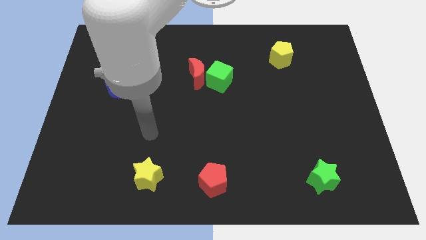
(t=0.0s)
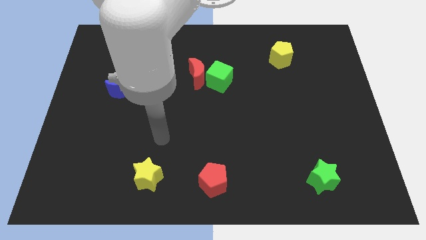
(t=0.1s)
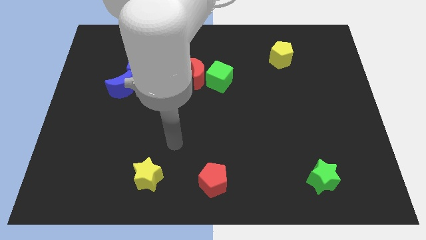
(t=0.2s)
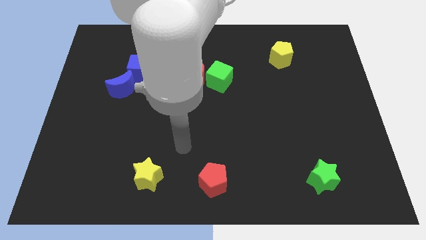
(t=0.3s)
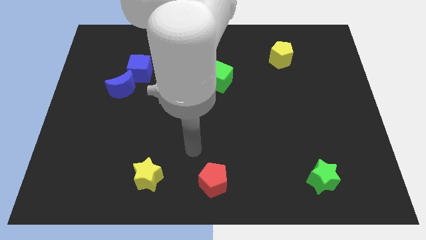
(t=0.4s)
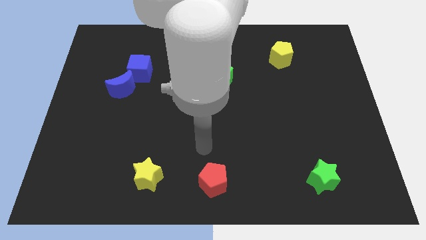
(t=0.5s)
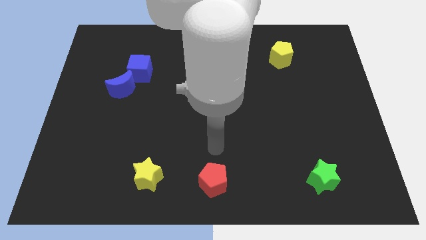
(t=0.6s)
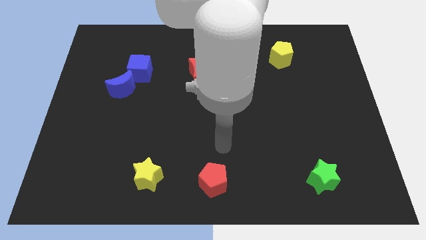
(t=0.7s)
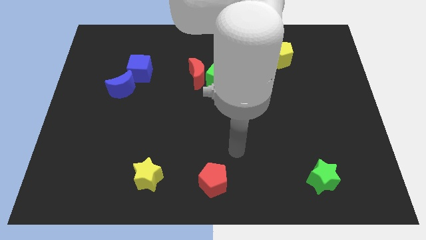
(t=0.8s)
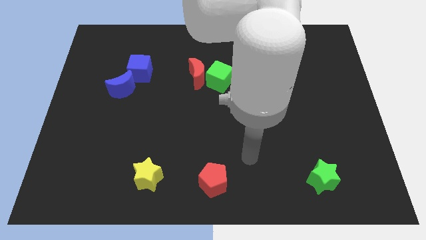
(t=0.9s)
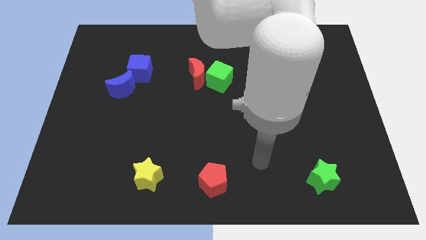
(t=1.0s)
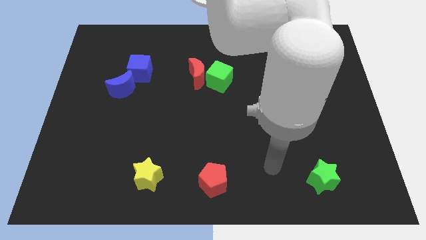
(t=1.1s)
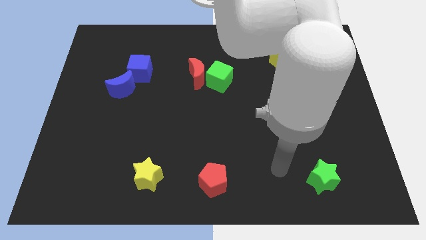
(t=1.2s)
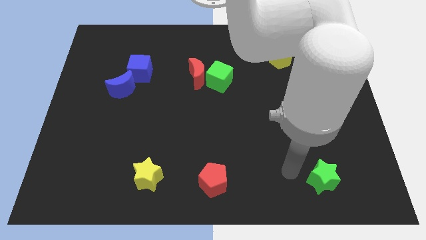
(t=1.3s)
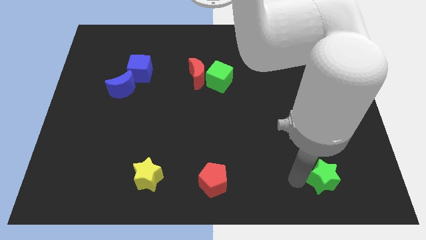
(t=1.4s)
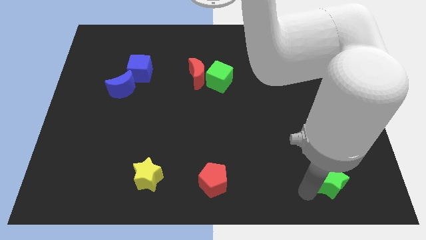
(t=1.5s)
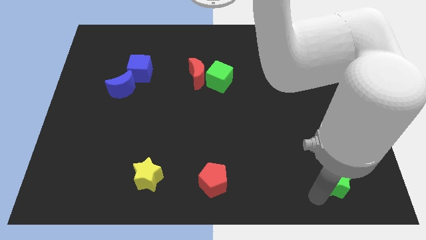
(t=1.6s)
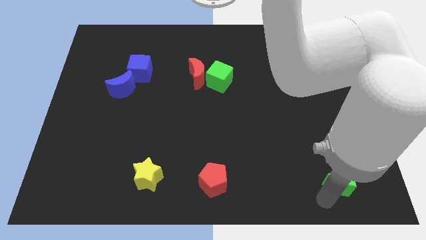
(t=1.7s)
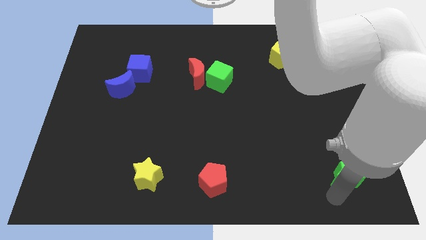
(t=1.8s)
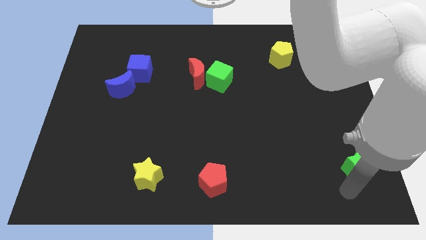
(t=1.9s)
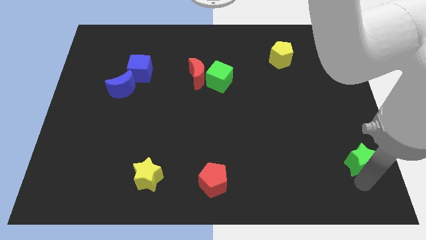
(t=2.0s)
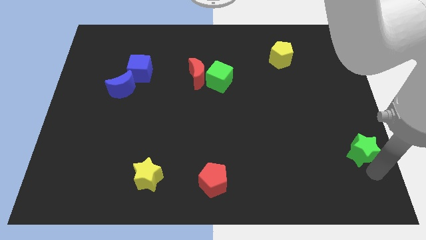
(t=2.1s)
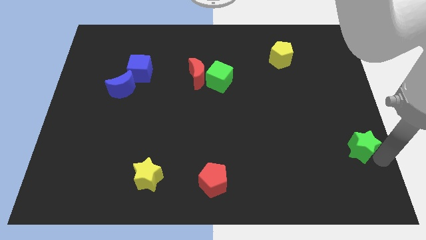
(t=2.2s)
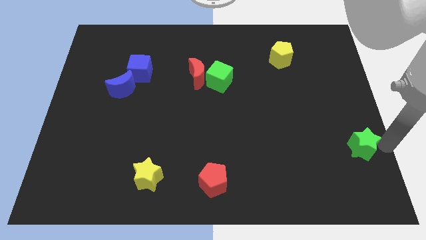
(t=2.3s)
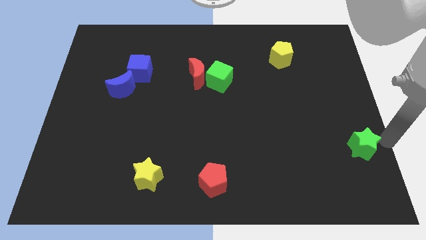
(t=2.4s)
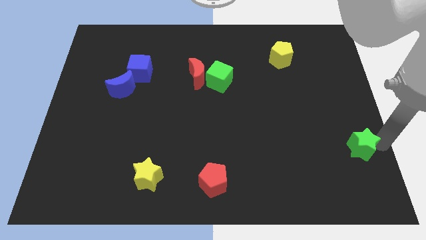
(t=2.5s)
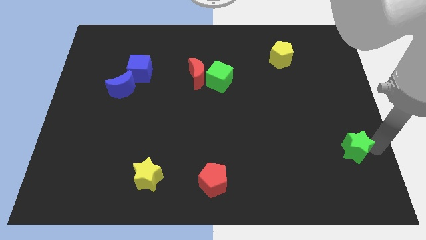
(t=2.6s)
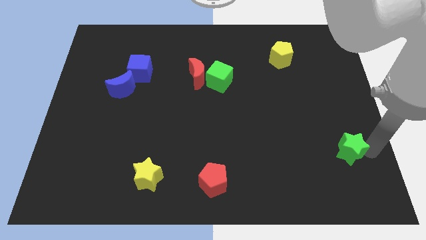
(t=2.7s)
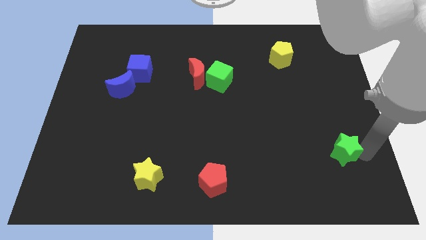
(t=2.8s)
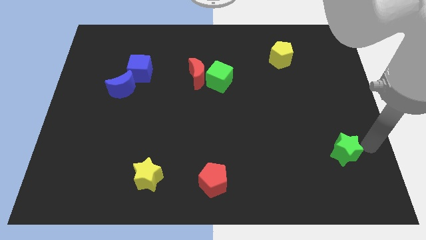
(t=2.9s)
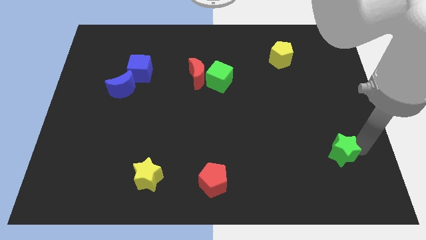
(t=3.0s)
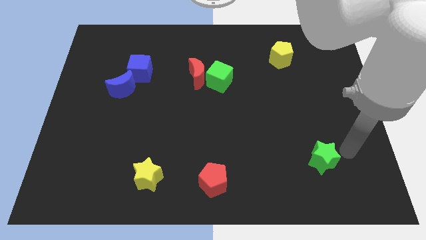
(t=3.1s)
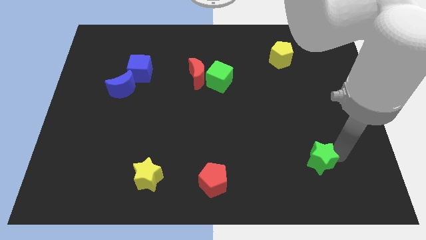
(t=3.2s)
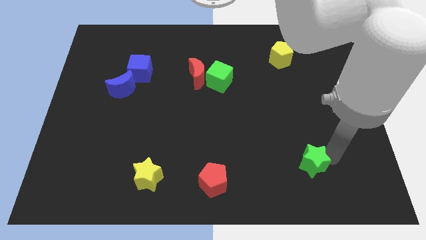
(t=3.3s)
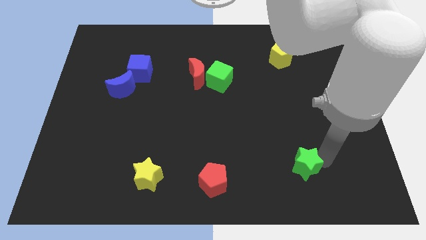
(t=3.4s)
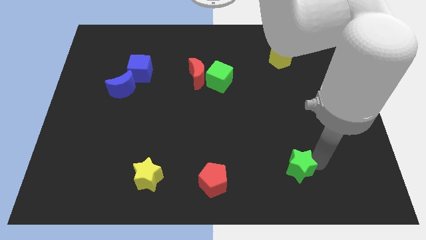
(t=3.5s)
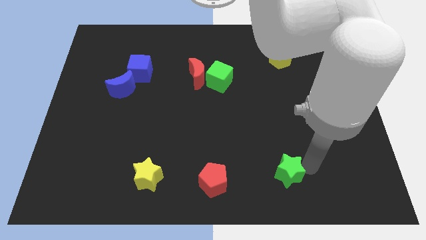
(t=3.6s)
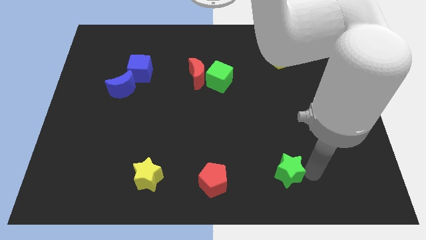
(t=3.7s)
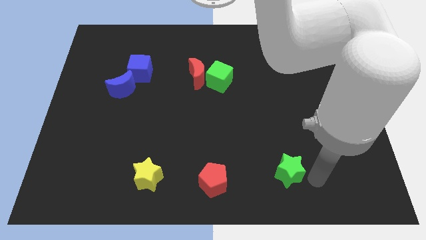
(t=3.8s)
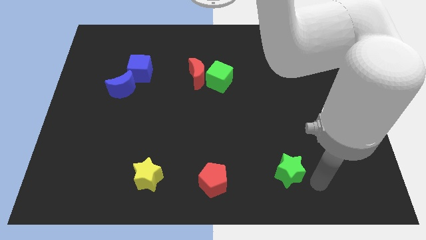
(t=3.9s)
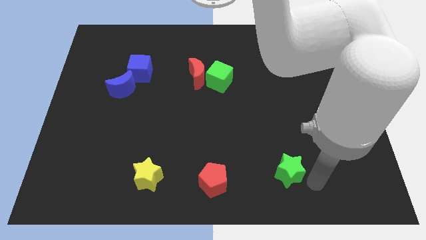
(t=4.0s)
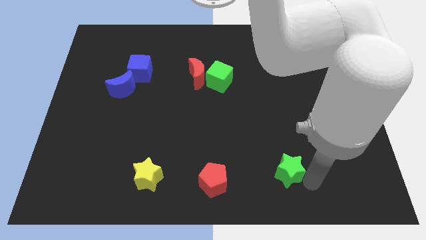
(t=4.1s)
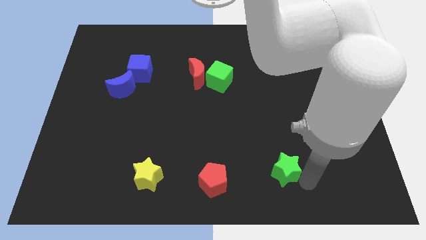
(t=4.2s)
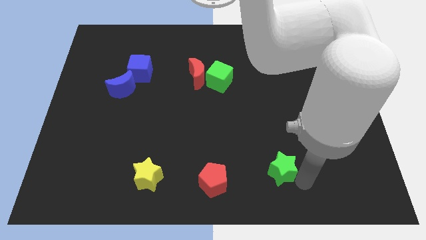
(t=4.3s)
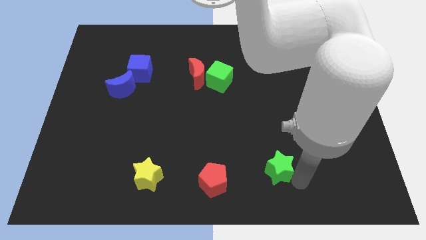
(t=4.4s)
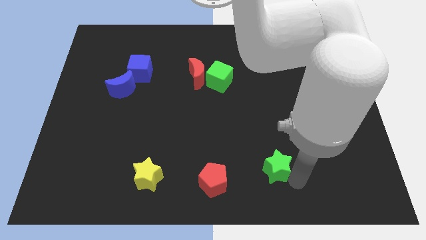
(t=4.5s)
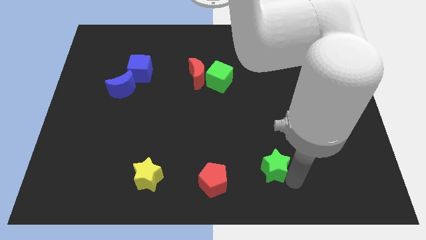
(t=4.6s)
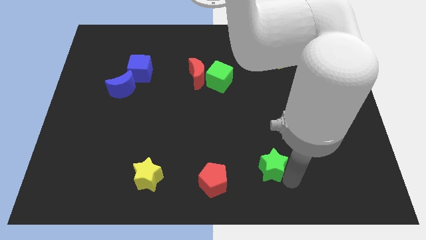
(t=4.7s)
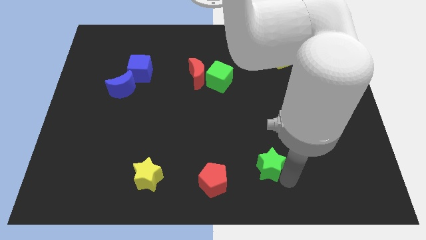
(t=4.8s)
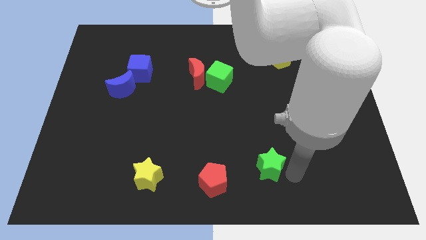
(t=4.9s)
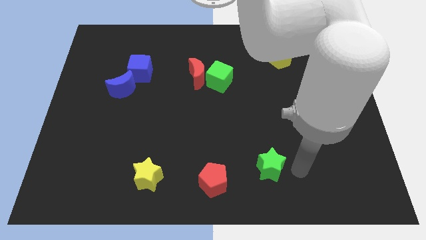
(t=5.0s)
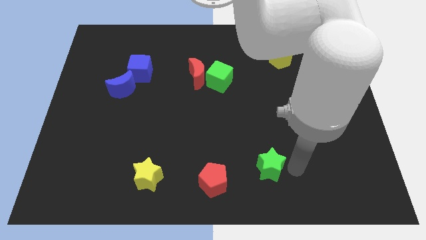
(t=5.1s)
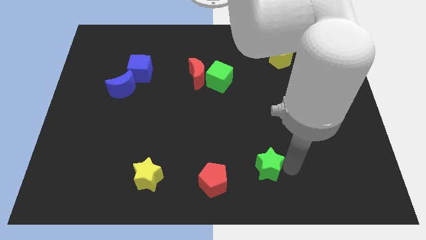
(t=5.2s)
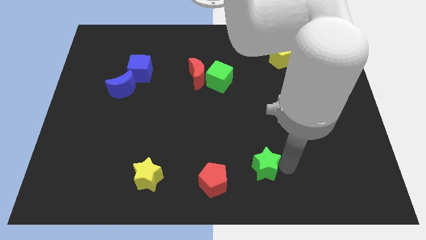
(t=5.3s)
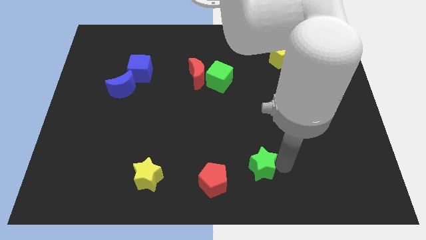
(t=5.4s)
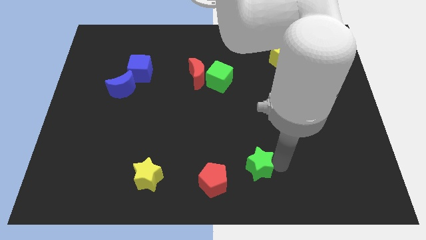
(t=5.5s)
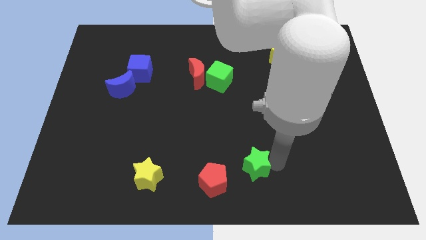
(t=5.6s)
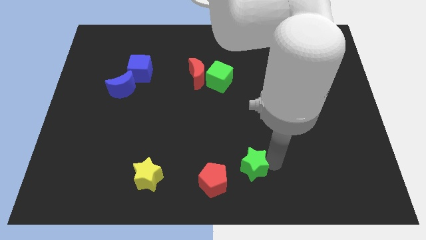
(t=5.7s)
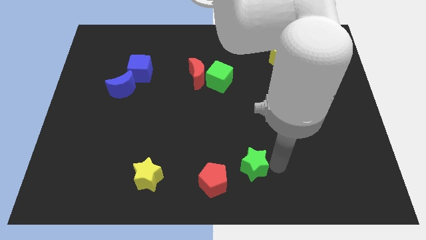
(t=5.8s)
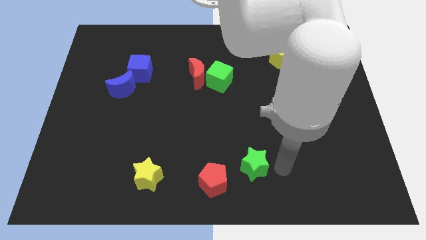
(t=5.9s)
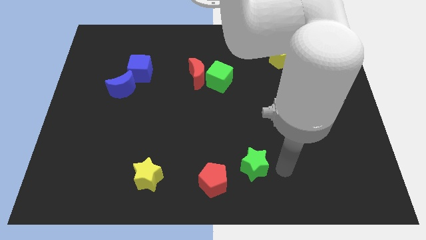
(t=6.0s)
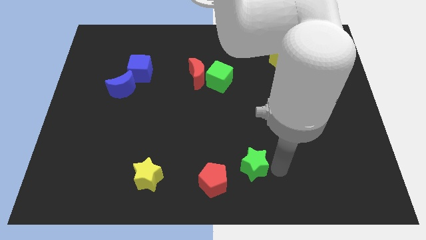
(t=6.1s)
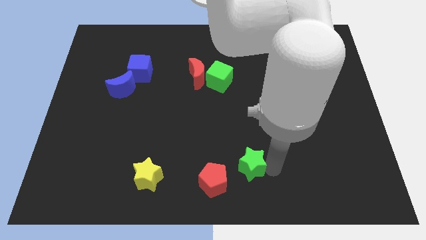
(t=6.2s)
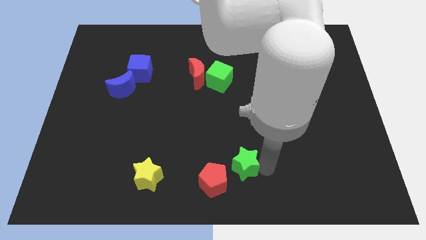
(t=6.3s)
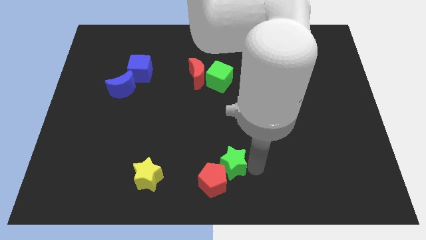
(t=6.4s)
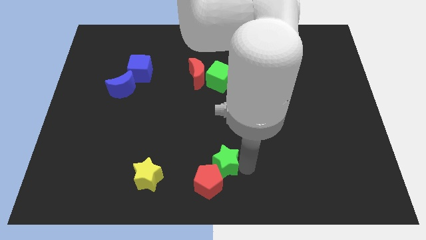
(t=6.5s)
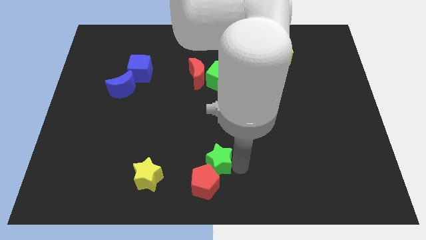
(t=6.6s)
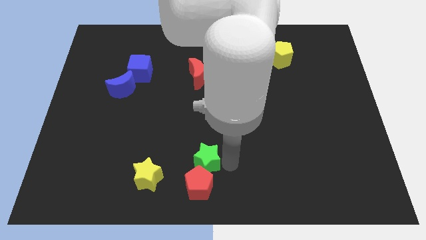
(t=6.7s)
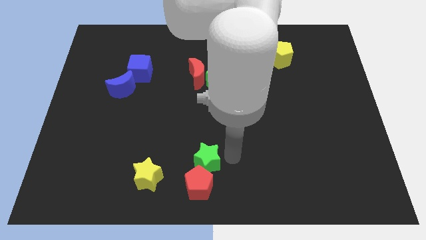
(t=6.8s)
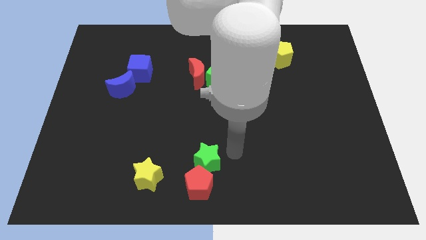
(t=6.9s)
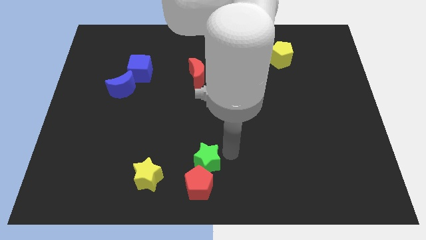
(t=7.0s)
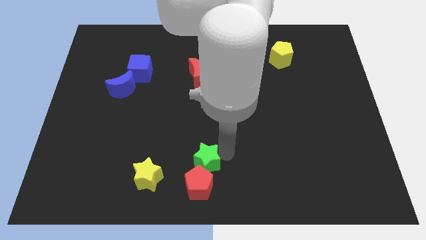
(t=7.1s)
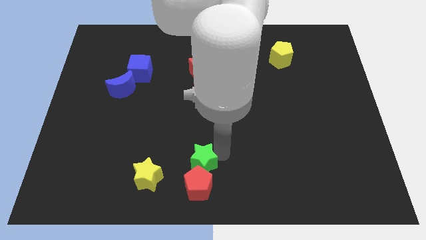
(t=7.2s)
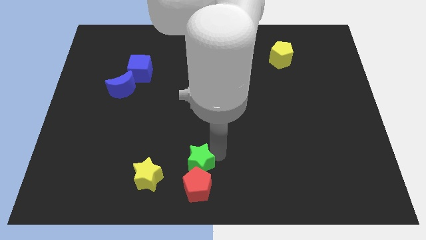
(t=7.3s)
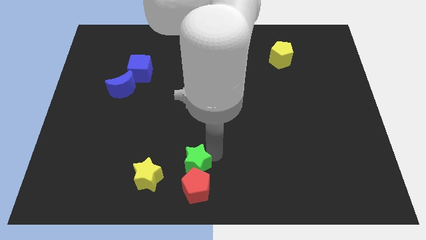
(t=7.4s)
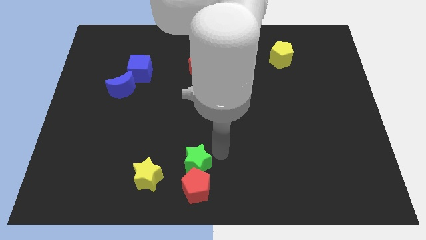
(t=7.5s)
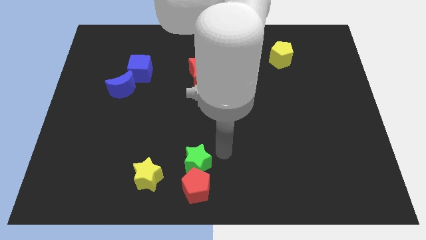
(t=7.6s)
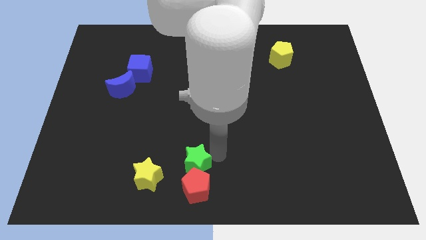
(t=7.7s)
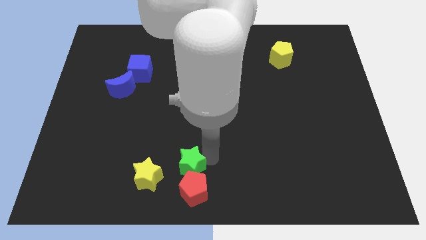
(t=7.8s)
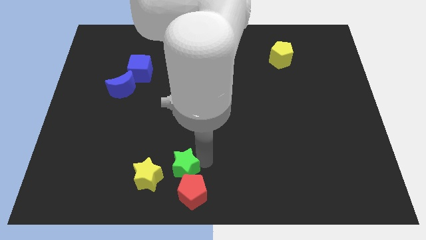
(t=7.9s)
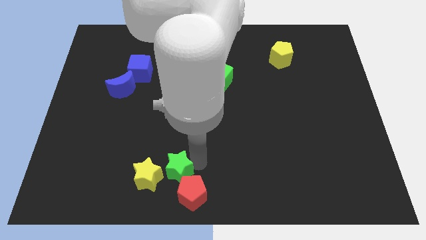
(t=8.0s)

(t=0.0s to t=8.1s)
put the green star close to the yellow star
